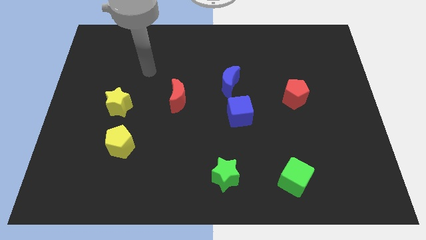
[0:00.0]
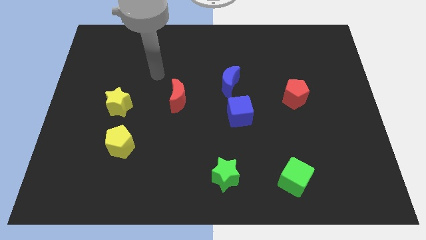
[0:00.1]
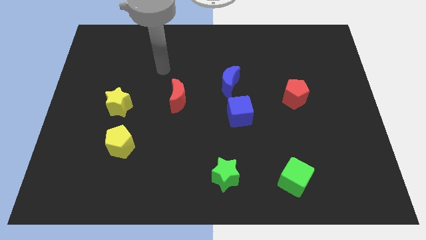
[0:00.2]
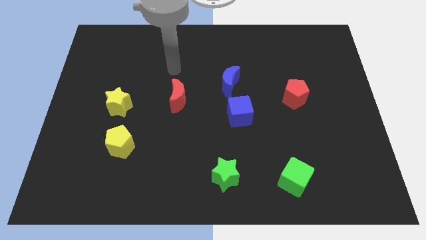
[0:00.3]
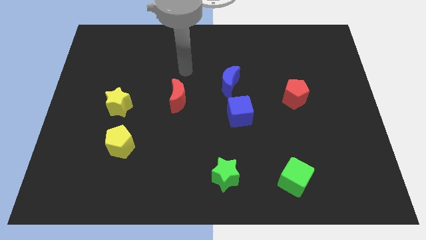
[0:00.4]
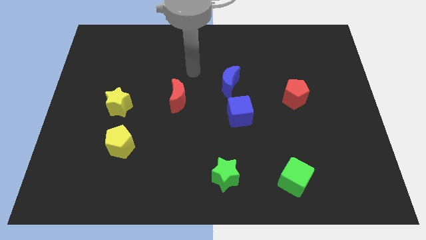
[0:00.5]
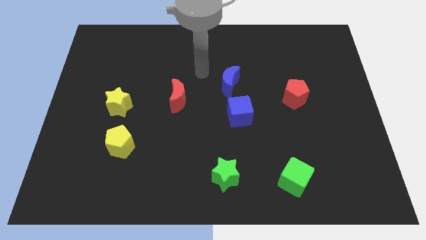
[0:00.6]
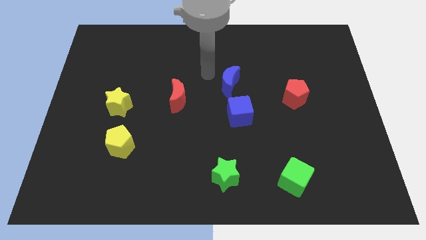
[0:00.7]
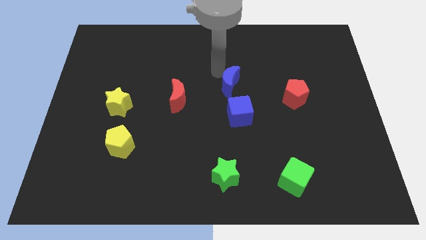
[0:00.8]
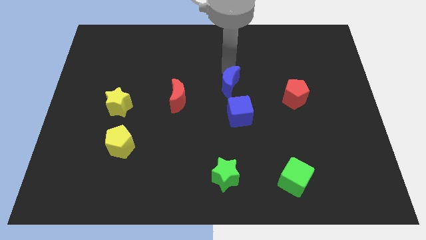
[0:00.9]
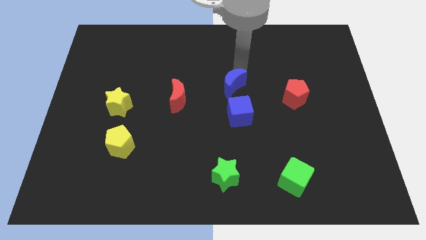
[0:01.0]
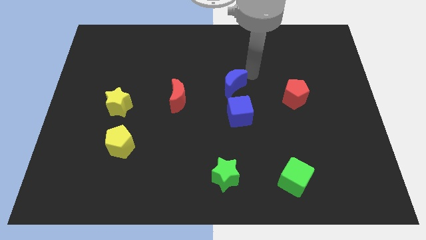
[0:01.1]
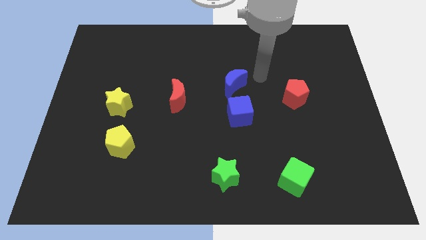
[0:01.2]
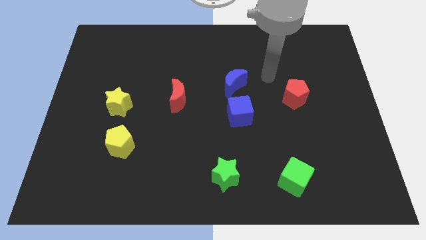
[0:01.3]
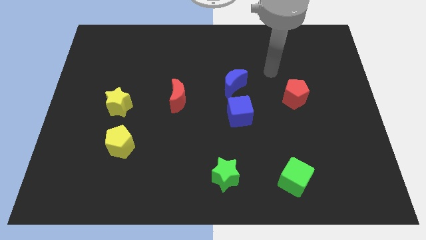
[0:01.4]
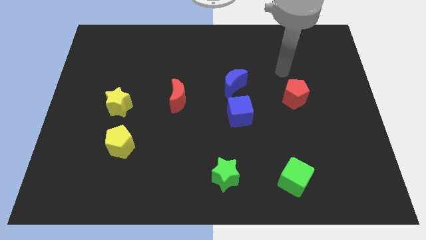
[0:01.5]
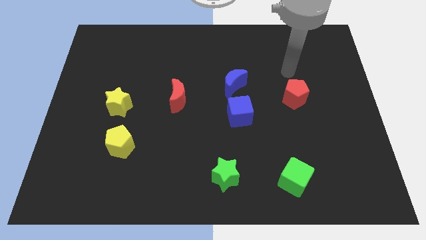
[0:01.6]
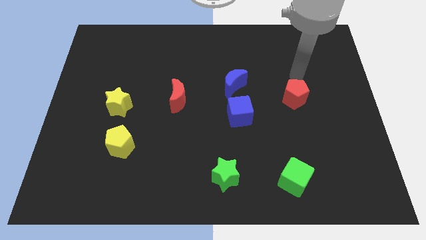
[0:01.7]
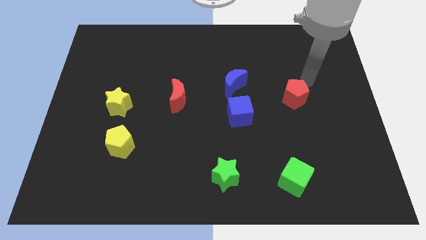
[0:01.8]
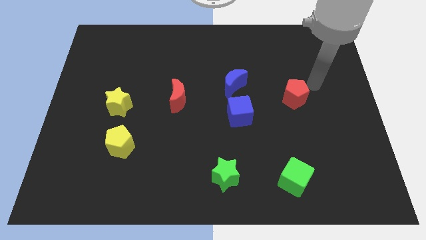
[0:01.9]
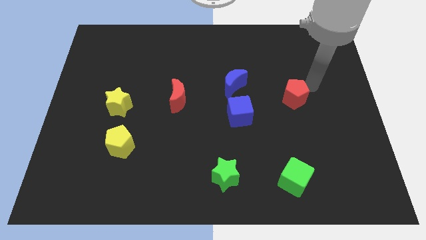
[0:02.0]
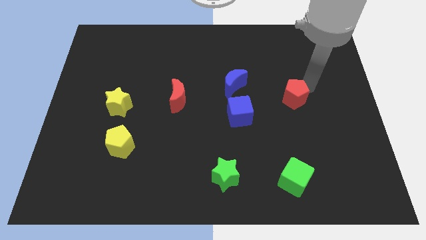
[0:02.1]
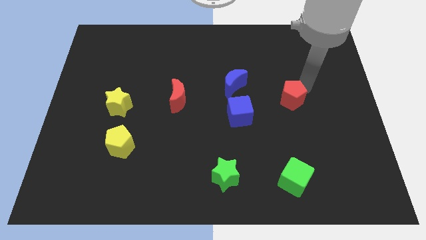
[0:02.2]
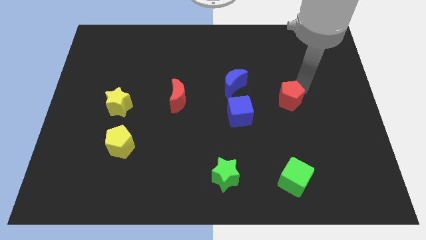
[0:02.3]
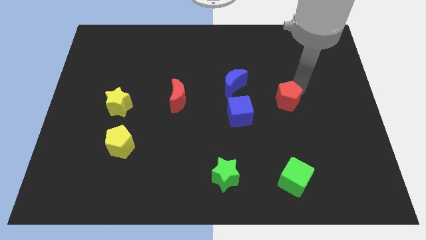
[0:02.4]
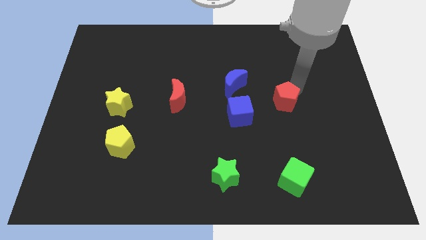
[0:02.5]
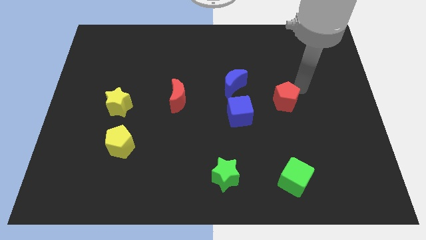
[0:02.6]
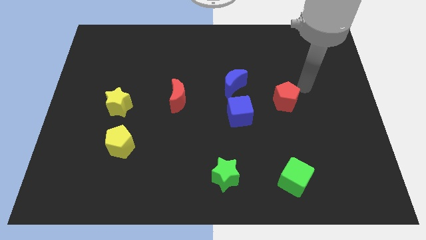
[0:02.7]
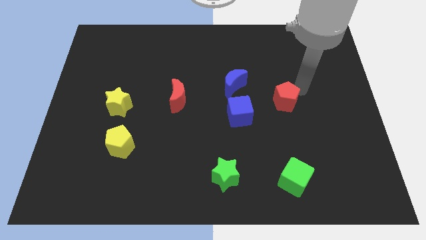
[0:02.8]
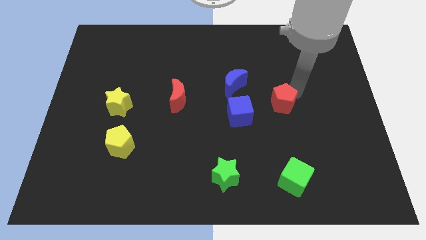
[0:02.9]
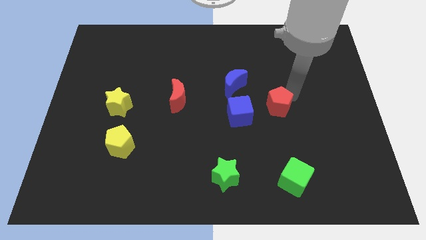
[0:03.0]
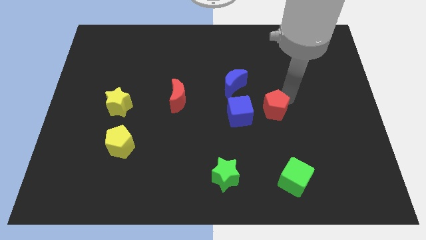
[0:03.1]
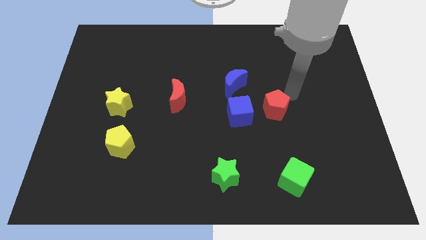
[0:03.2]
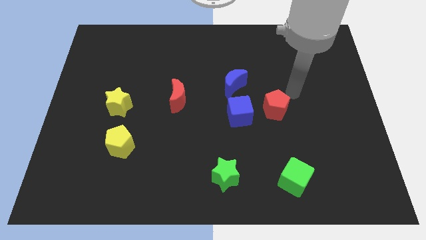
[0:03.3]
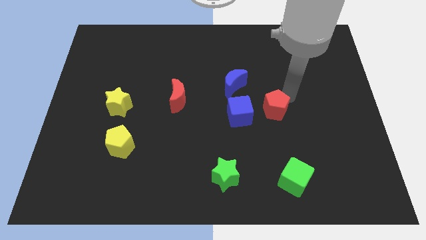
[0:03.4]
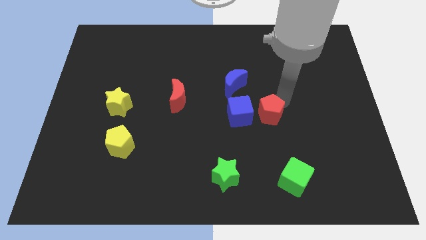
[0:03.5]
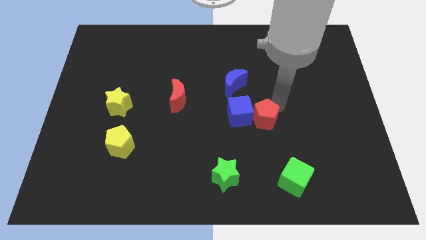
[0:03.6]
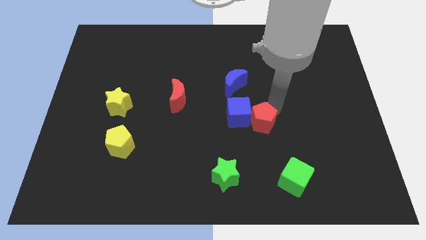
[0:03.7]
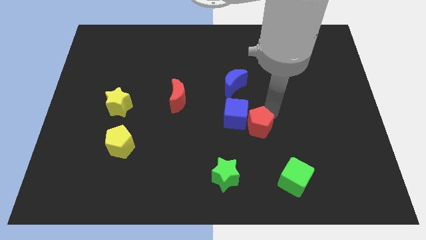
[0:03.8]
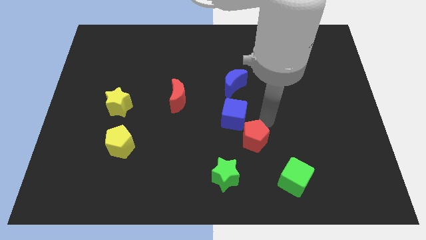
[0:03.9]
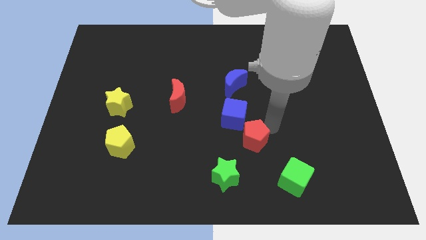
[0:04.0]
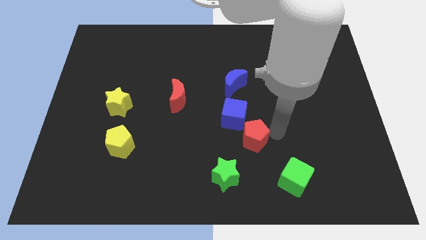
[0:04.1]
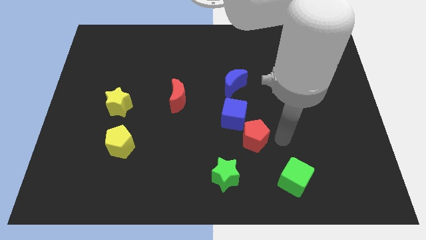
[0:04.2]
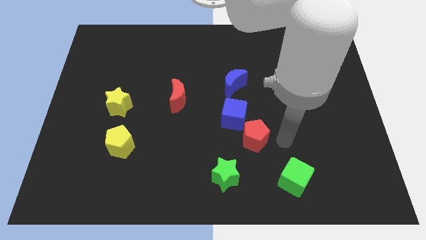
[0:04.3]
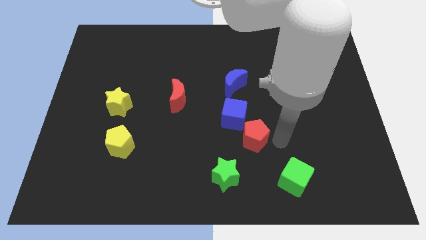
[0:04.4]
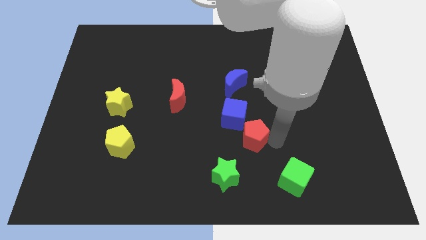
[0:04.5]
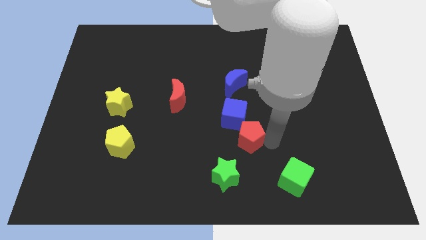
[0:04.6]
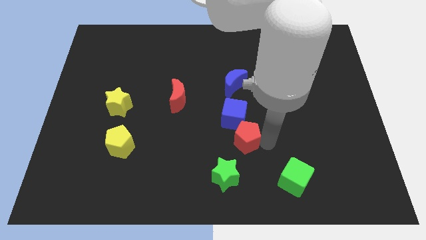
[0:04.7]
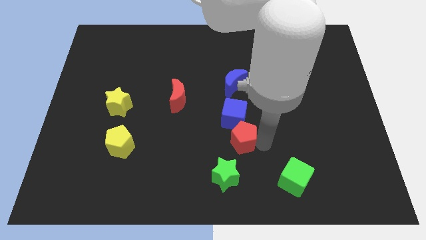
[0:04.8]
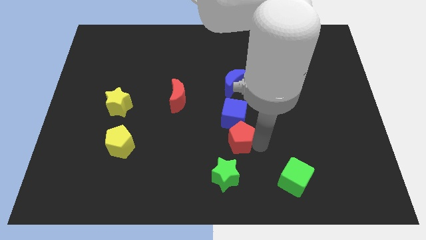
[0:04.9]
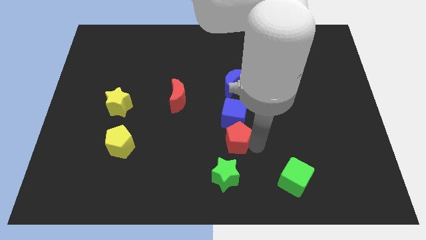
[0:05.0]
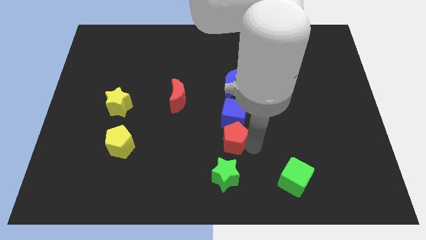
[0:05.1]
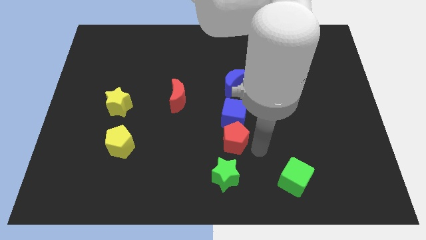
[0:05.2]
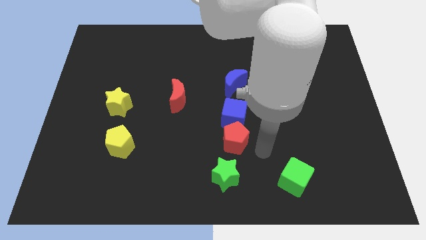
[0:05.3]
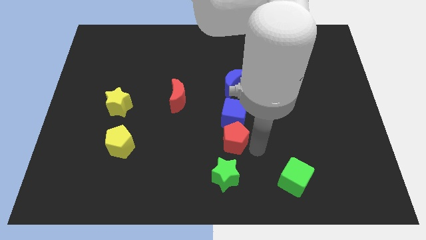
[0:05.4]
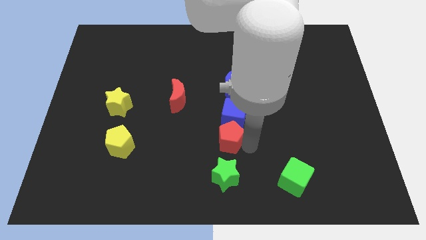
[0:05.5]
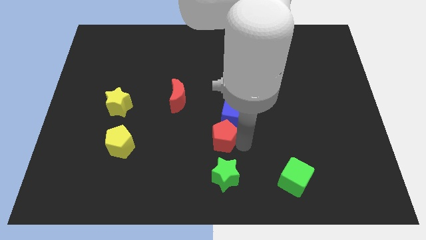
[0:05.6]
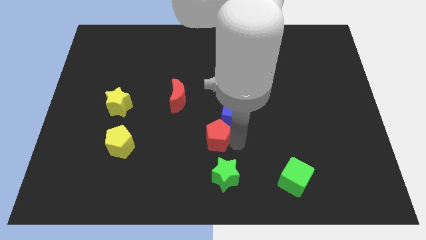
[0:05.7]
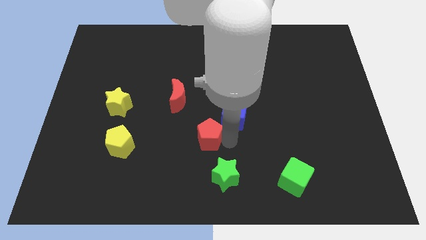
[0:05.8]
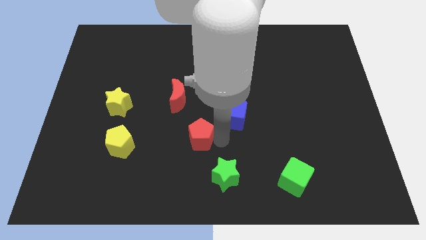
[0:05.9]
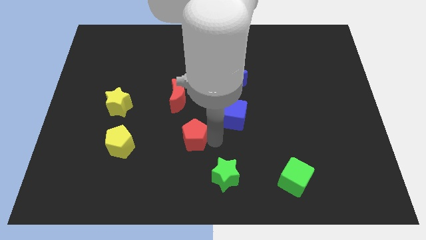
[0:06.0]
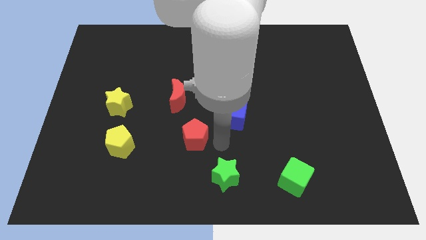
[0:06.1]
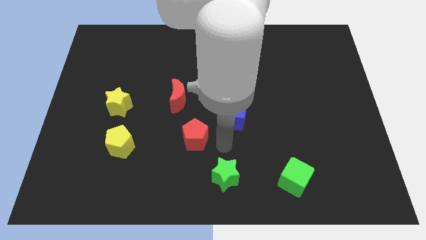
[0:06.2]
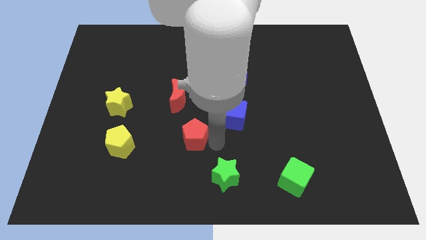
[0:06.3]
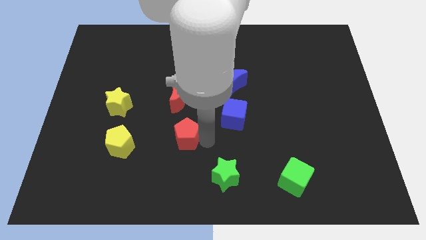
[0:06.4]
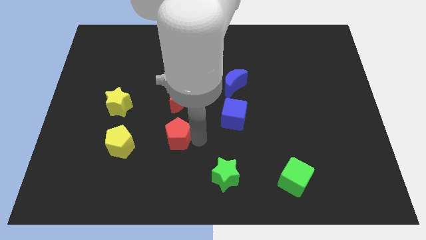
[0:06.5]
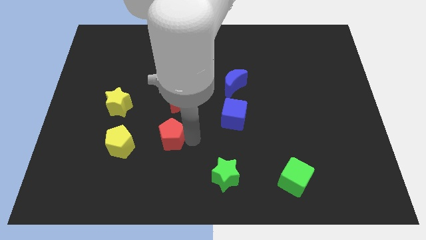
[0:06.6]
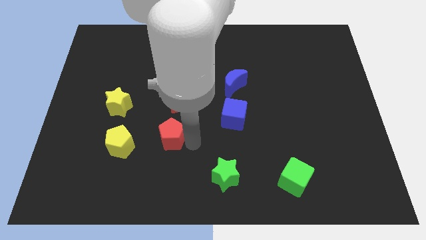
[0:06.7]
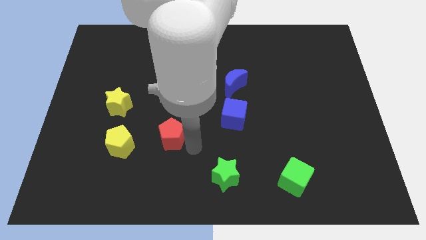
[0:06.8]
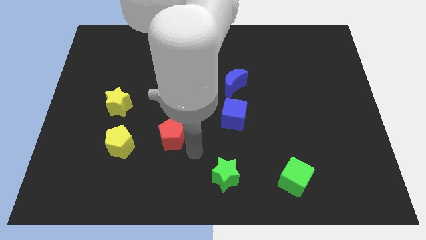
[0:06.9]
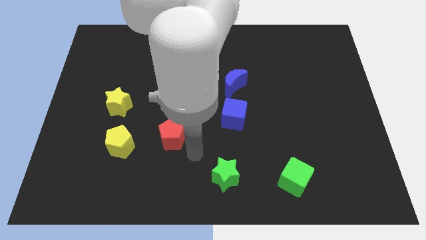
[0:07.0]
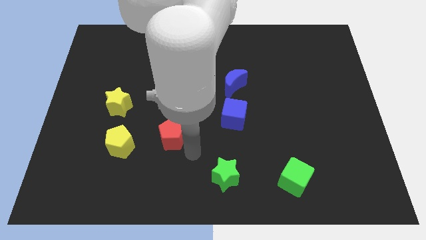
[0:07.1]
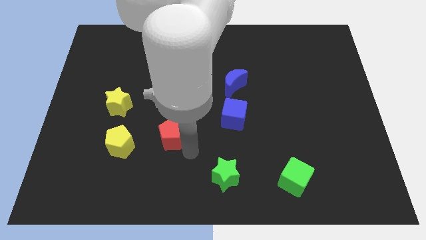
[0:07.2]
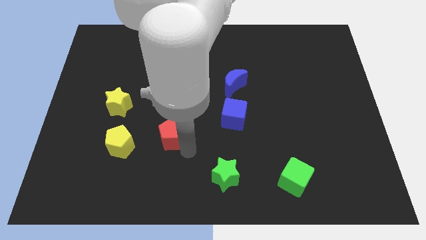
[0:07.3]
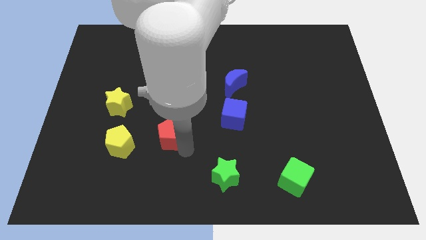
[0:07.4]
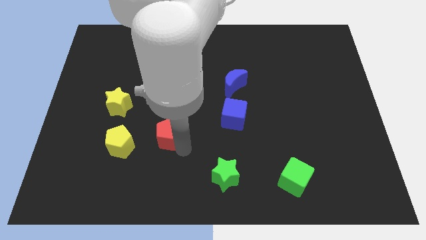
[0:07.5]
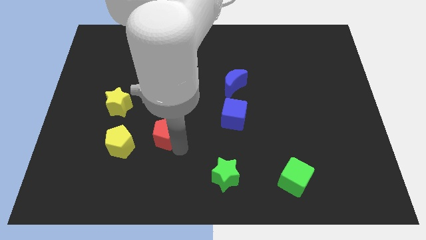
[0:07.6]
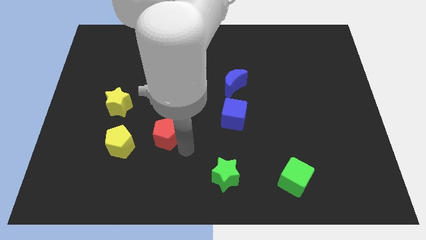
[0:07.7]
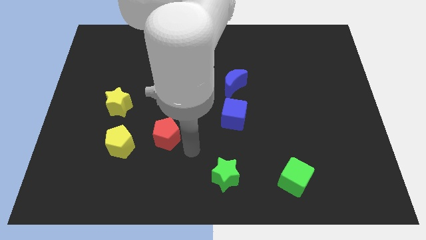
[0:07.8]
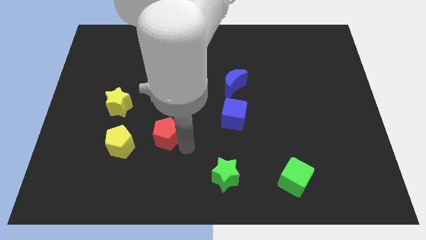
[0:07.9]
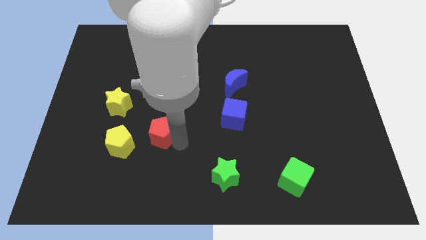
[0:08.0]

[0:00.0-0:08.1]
push the red pentagon diagonally up and to the right of the yellow pentagon

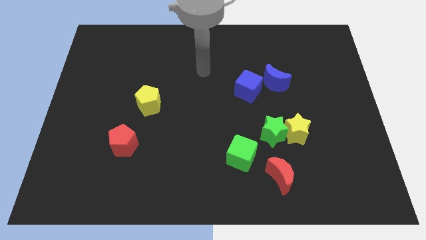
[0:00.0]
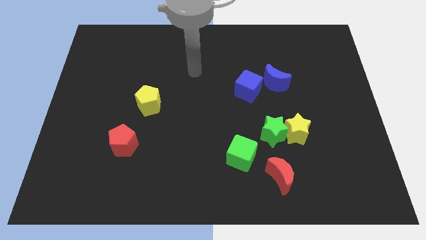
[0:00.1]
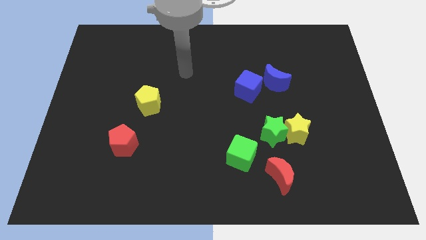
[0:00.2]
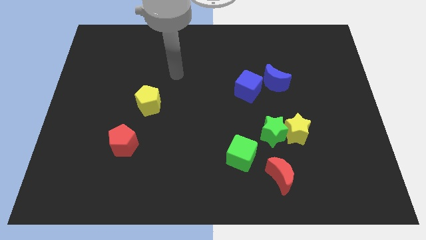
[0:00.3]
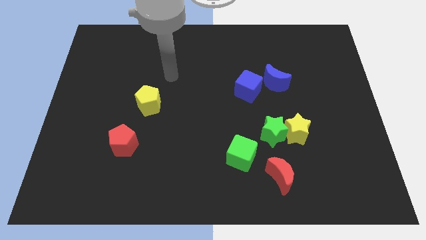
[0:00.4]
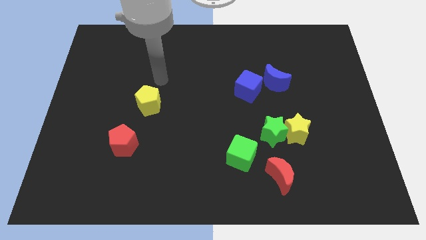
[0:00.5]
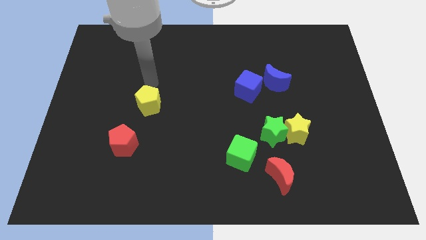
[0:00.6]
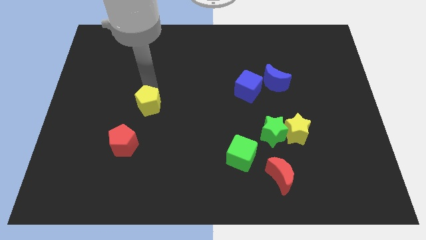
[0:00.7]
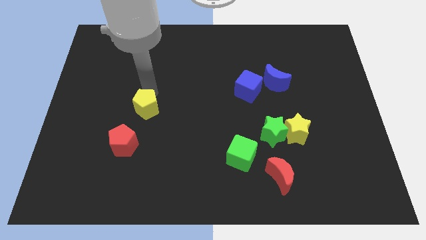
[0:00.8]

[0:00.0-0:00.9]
move the yellow pentagon to the top right of the red pentagon
